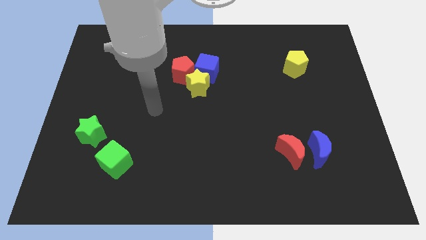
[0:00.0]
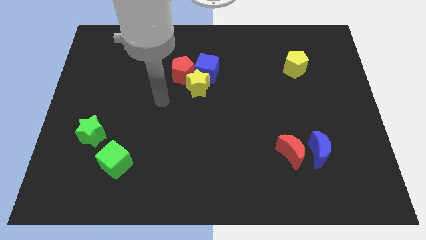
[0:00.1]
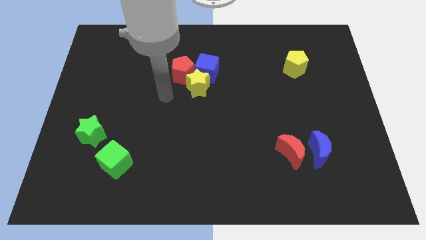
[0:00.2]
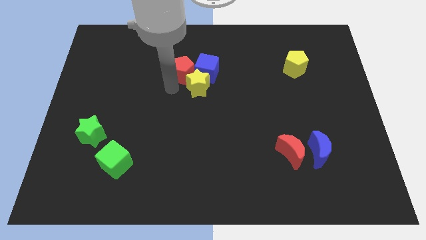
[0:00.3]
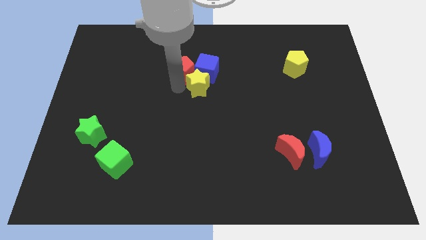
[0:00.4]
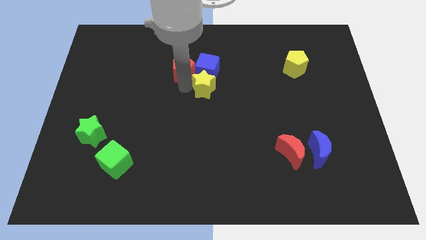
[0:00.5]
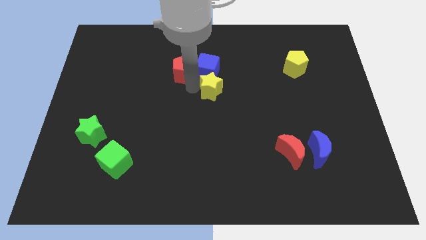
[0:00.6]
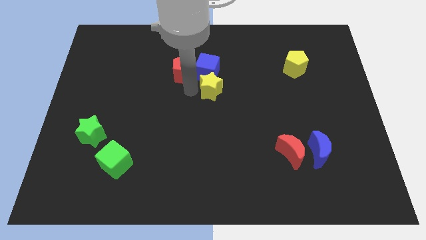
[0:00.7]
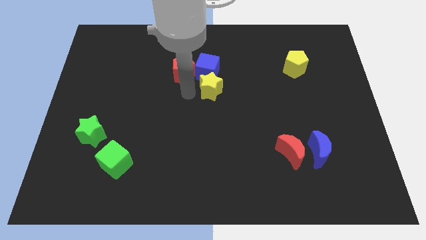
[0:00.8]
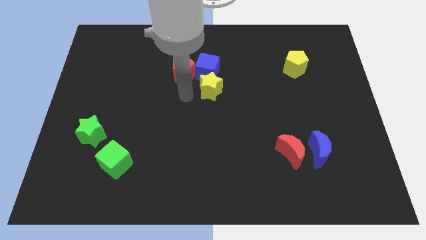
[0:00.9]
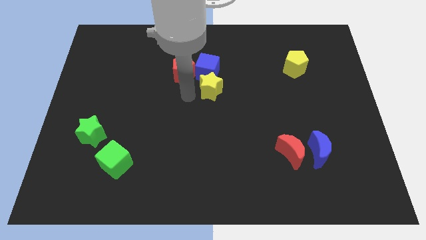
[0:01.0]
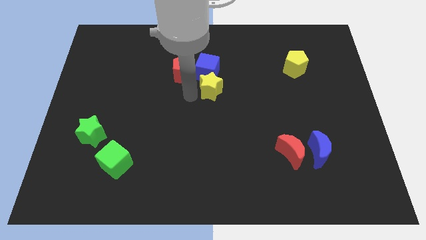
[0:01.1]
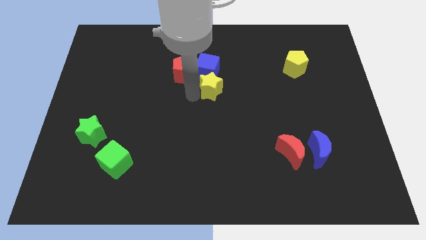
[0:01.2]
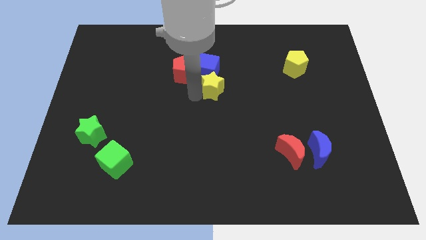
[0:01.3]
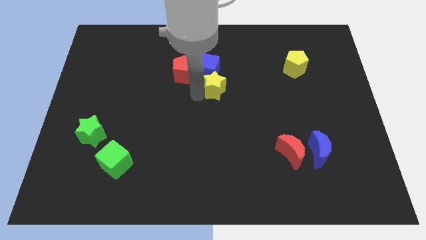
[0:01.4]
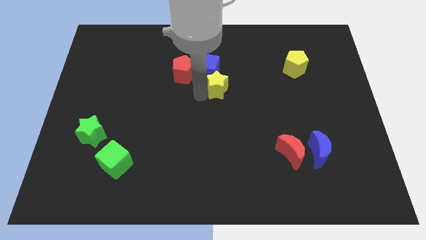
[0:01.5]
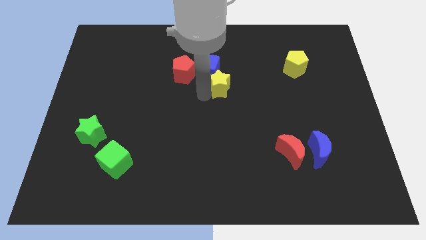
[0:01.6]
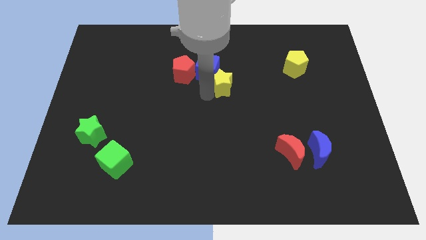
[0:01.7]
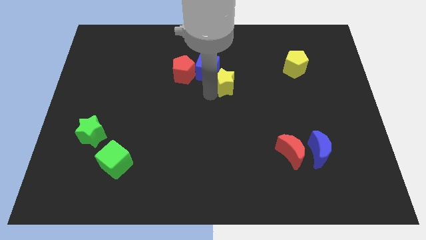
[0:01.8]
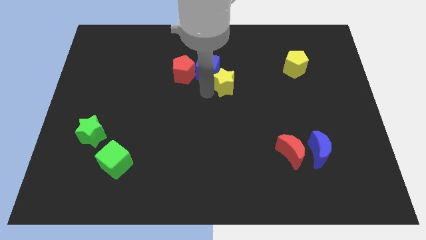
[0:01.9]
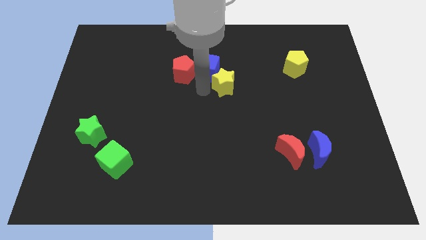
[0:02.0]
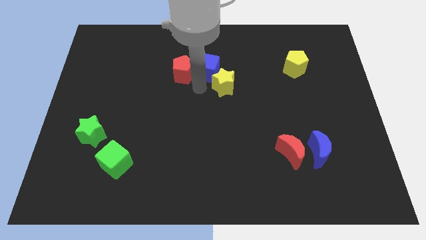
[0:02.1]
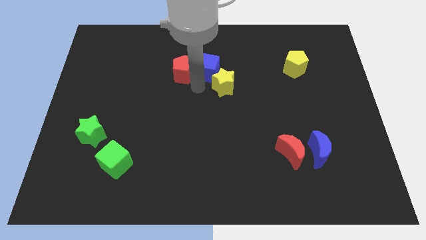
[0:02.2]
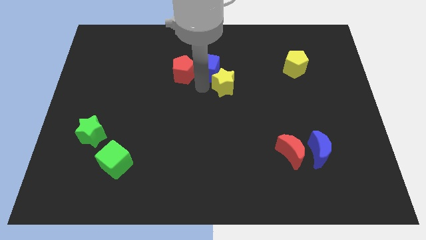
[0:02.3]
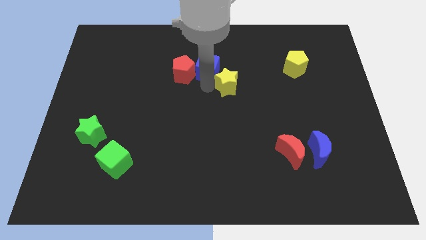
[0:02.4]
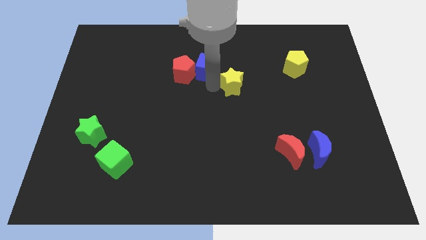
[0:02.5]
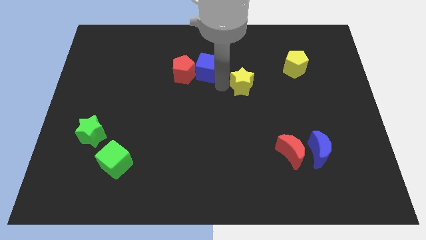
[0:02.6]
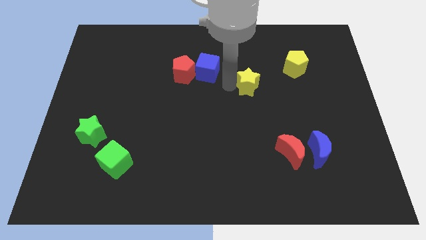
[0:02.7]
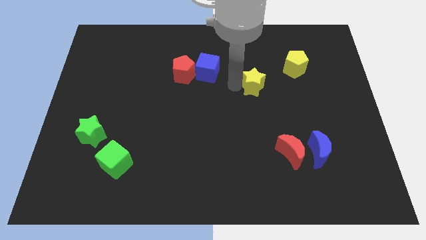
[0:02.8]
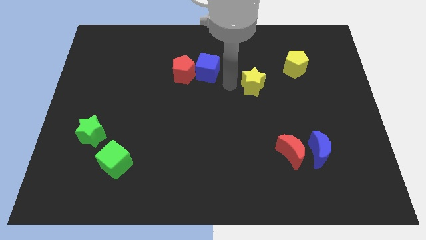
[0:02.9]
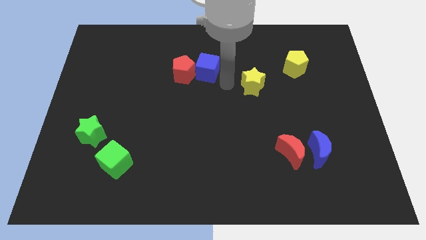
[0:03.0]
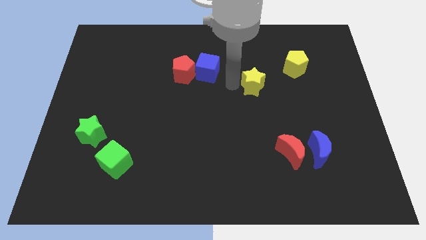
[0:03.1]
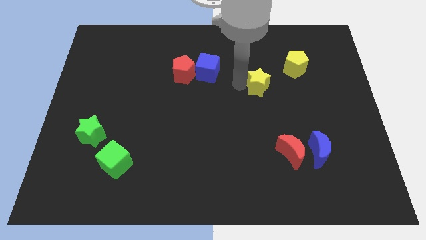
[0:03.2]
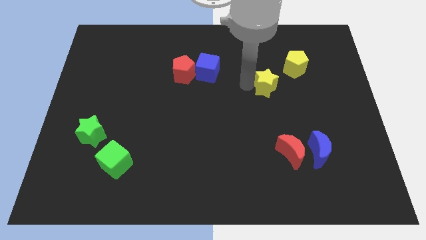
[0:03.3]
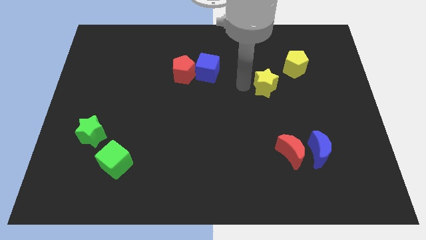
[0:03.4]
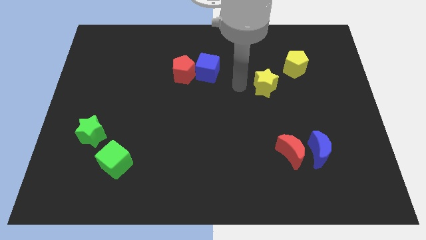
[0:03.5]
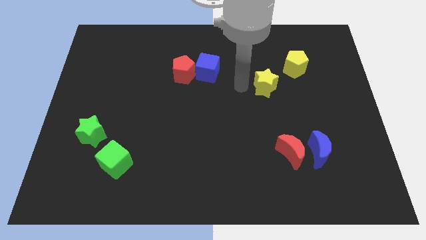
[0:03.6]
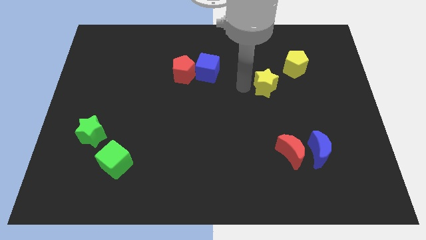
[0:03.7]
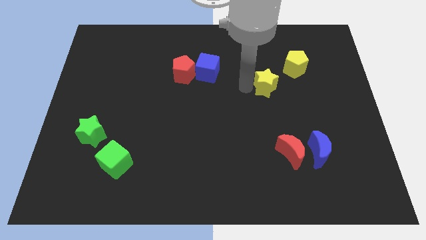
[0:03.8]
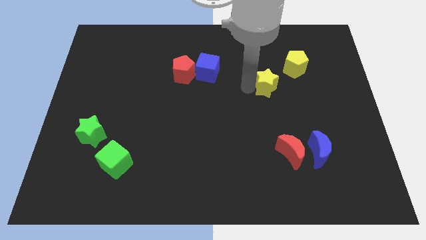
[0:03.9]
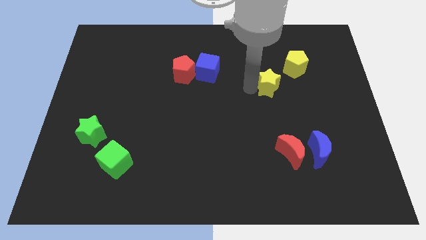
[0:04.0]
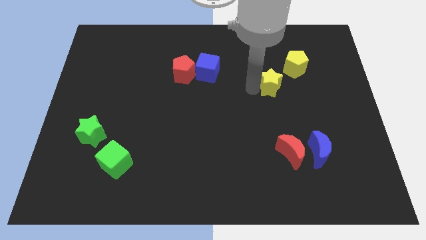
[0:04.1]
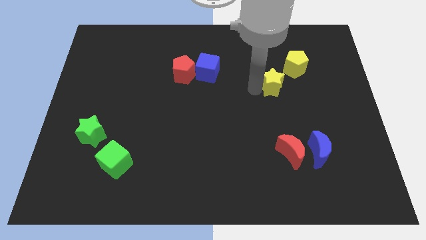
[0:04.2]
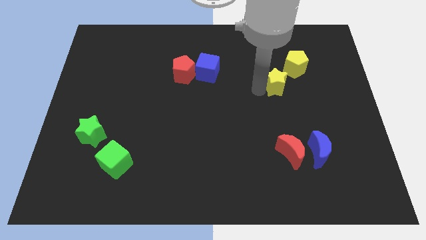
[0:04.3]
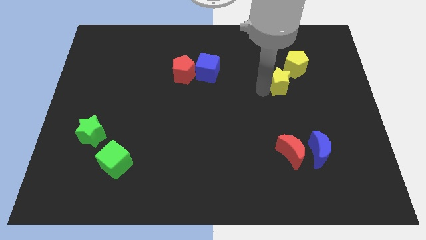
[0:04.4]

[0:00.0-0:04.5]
slide the yellow star right

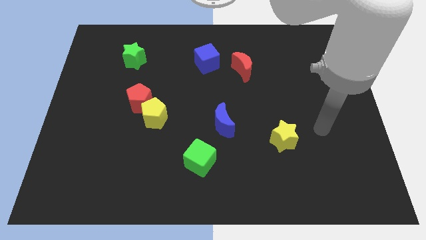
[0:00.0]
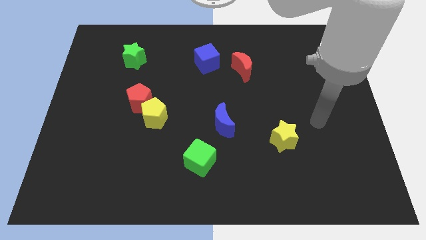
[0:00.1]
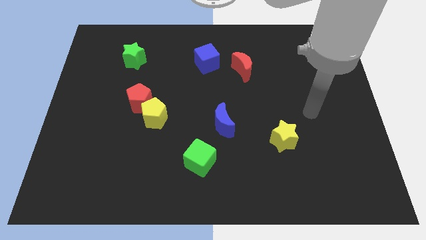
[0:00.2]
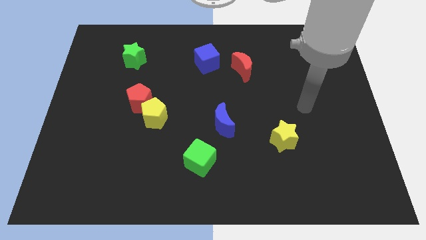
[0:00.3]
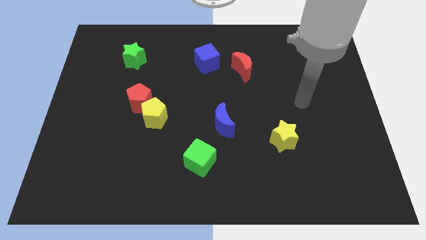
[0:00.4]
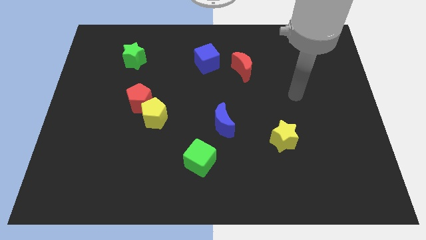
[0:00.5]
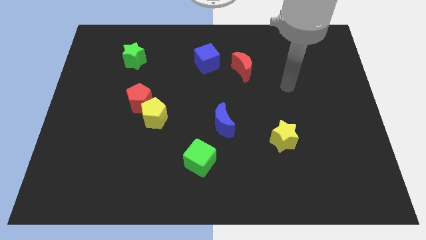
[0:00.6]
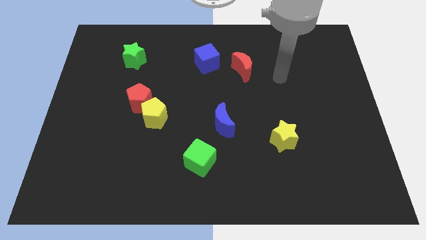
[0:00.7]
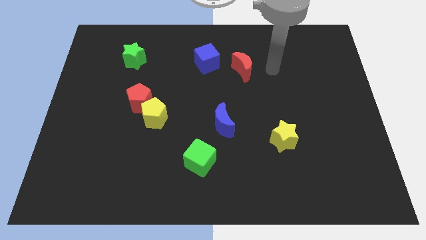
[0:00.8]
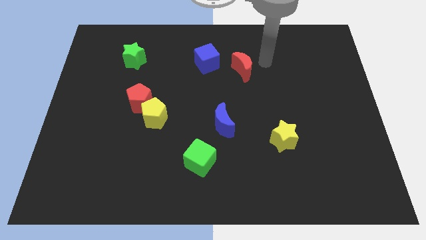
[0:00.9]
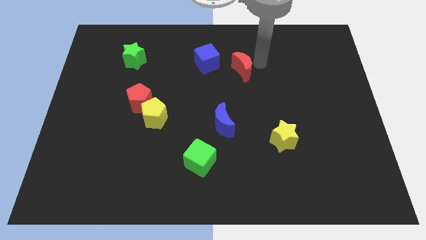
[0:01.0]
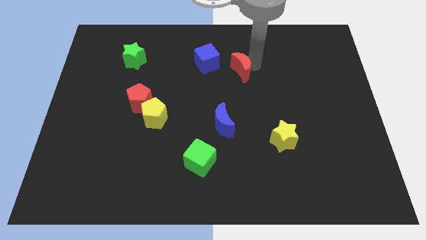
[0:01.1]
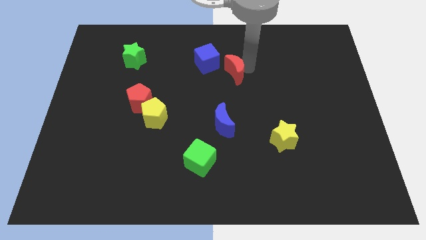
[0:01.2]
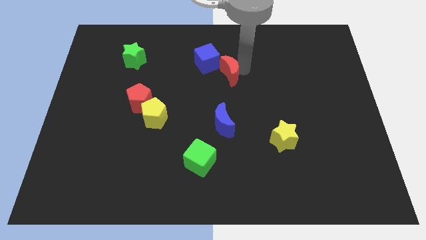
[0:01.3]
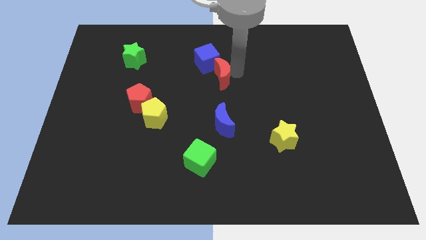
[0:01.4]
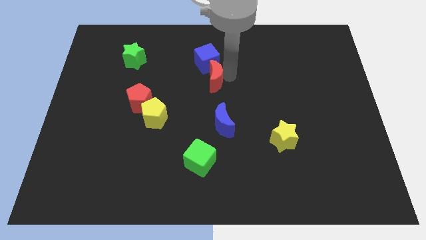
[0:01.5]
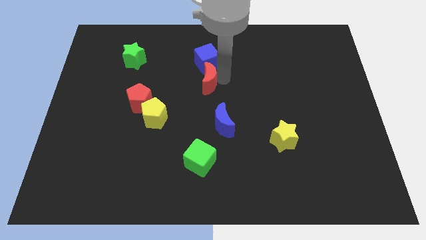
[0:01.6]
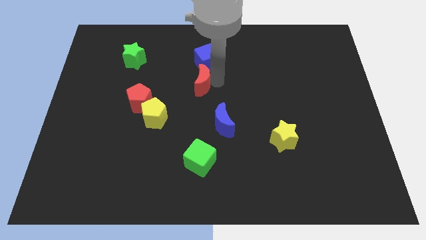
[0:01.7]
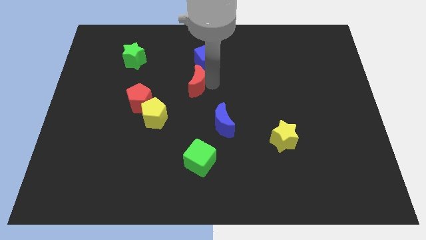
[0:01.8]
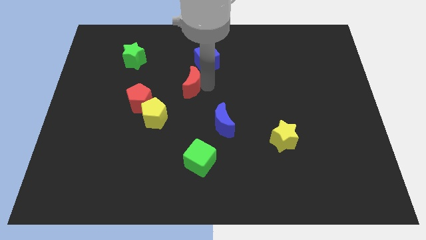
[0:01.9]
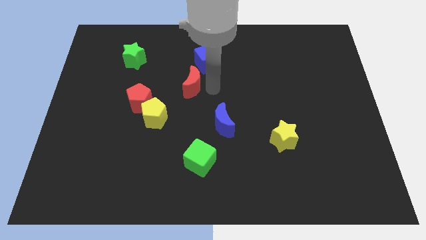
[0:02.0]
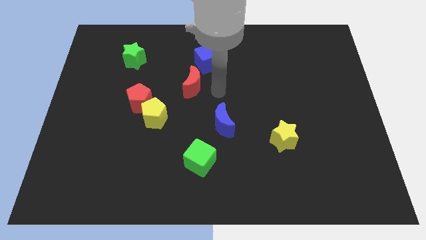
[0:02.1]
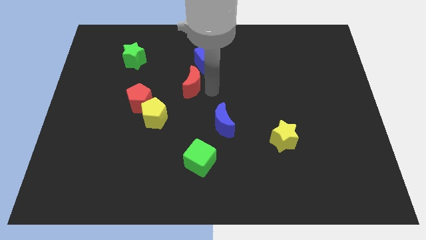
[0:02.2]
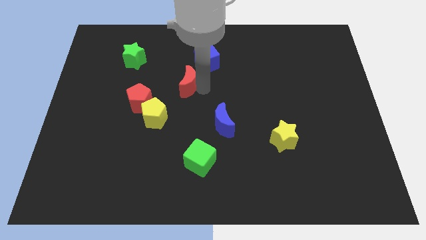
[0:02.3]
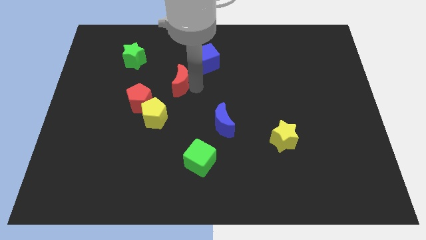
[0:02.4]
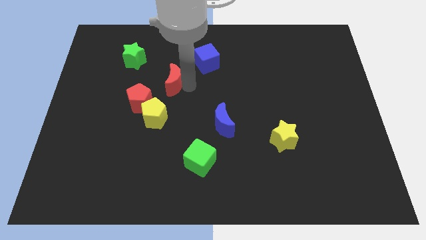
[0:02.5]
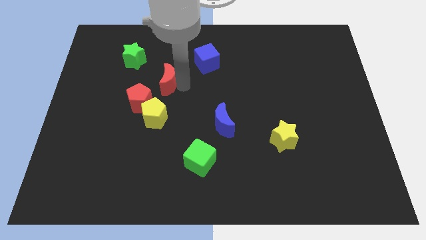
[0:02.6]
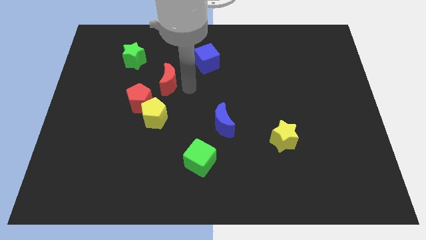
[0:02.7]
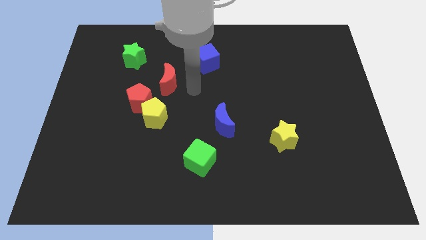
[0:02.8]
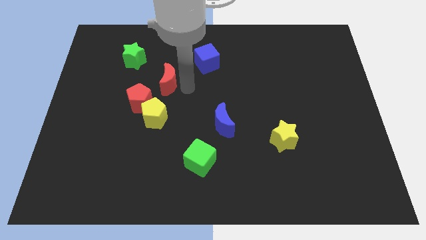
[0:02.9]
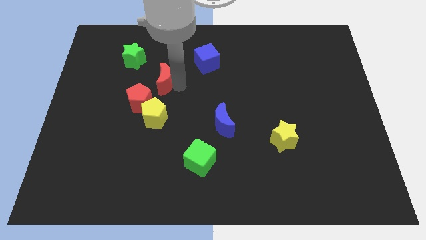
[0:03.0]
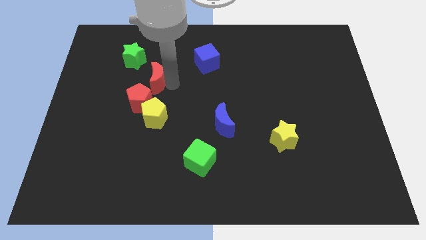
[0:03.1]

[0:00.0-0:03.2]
move the red moon left

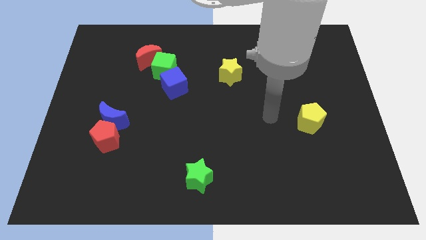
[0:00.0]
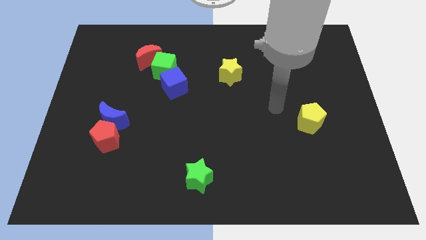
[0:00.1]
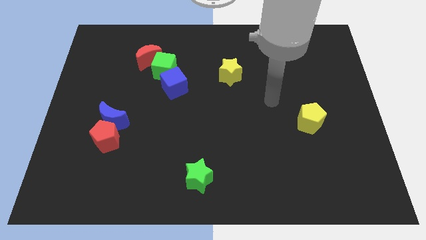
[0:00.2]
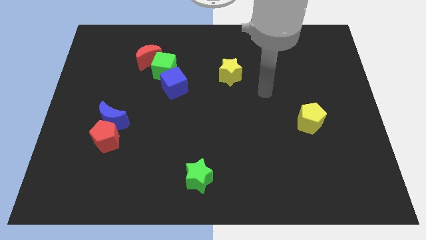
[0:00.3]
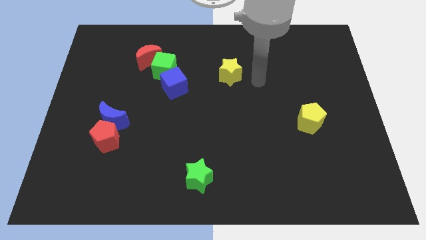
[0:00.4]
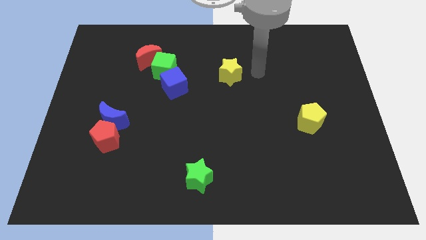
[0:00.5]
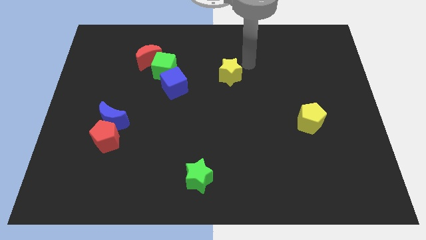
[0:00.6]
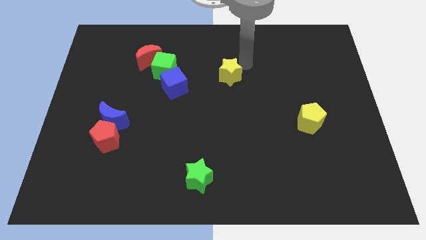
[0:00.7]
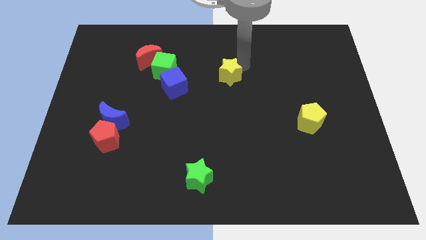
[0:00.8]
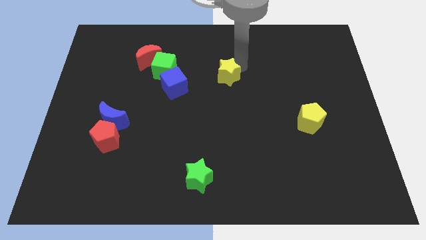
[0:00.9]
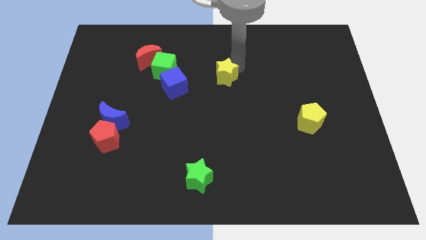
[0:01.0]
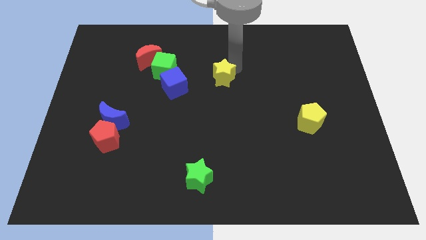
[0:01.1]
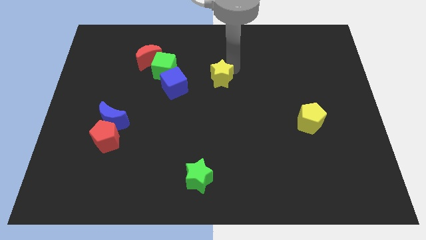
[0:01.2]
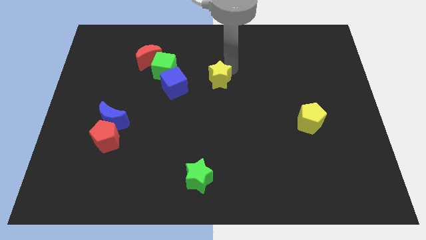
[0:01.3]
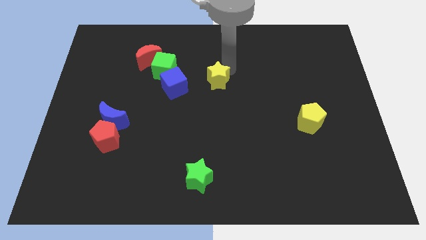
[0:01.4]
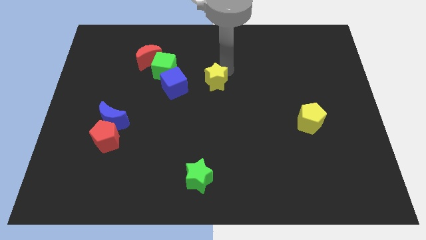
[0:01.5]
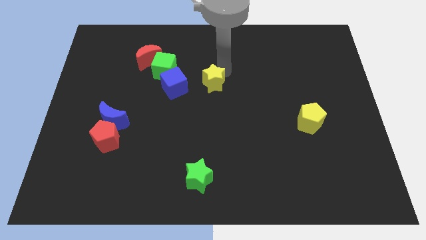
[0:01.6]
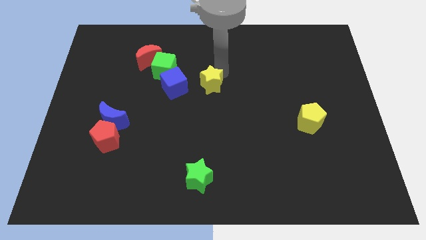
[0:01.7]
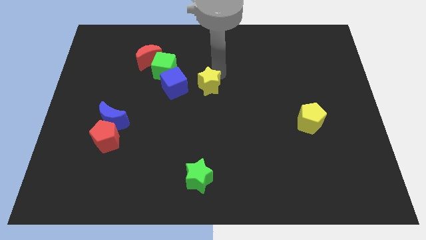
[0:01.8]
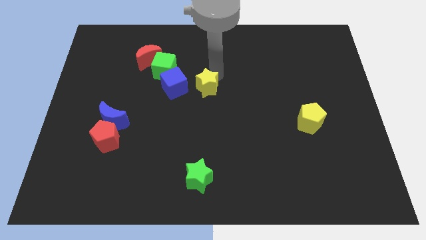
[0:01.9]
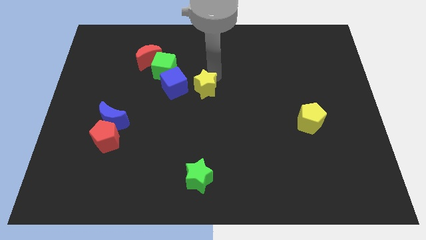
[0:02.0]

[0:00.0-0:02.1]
slightly slide the yellow star down and to the left
